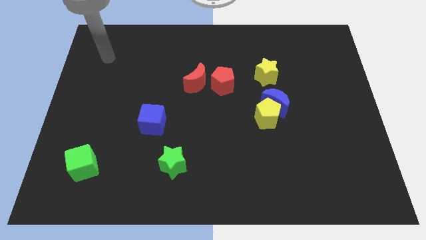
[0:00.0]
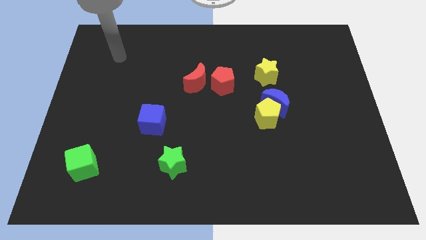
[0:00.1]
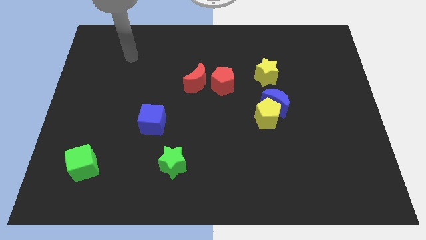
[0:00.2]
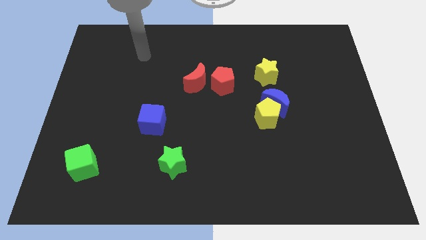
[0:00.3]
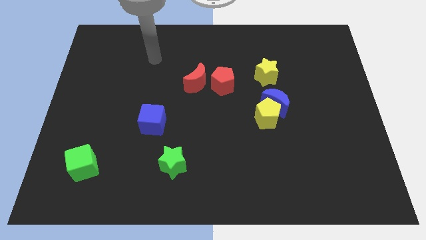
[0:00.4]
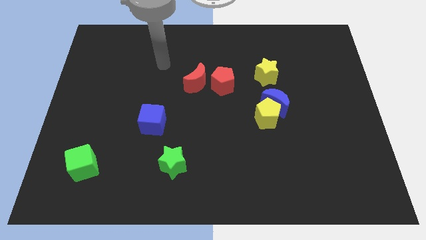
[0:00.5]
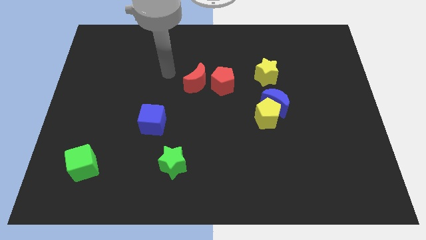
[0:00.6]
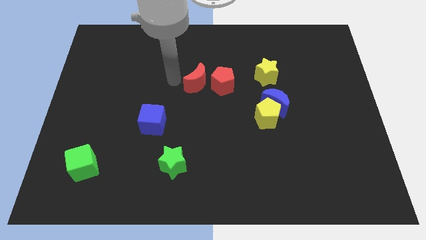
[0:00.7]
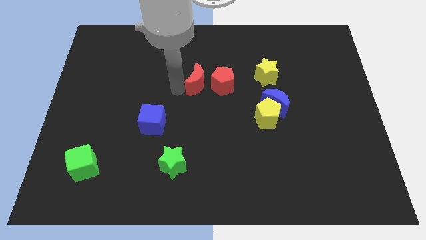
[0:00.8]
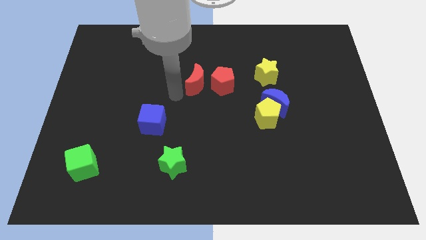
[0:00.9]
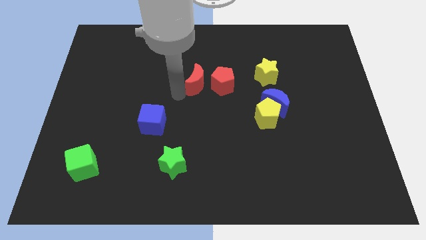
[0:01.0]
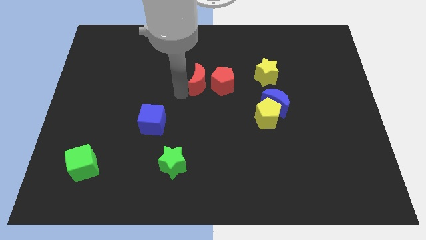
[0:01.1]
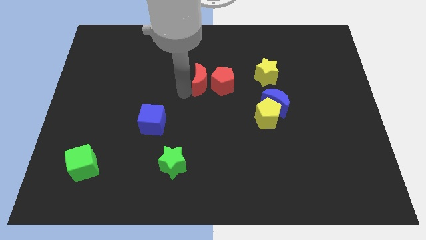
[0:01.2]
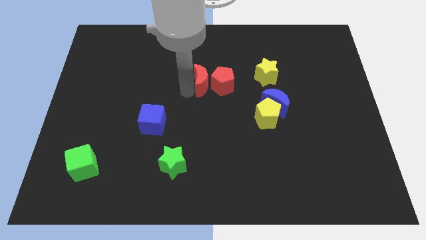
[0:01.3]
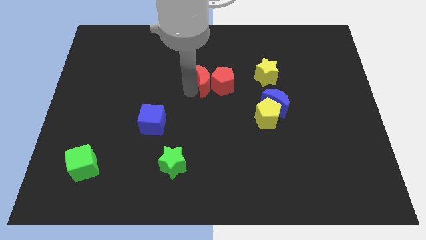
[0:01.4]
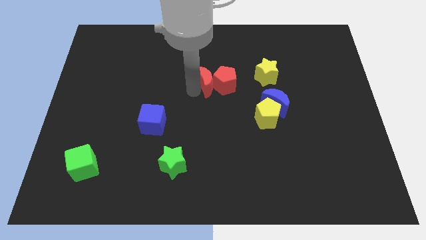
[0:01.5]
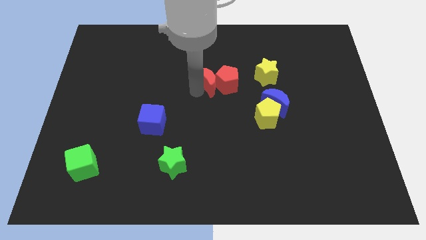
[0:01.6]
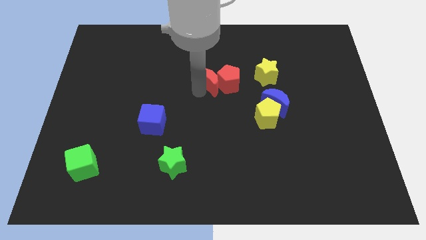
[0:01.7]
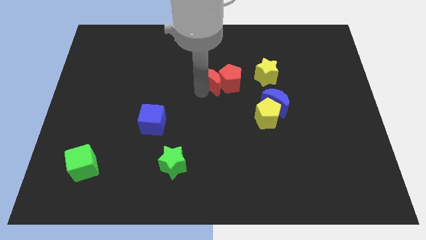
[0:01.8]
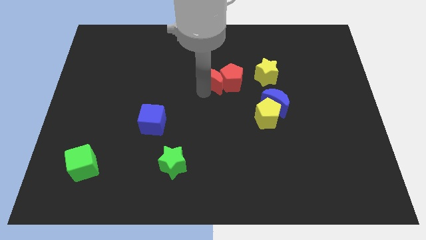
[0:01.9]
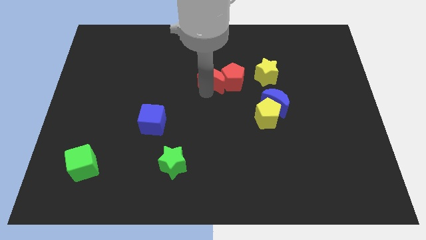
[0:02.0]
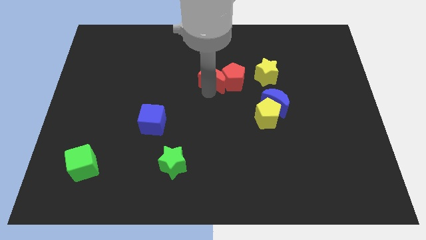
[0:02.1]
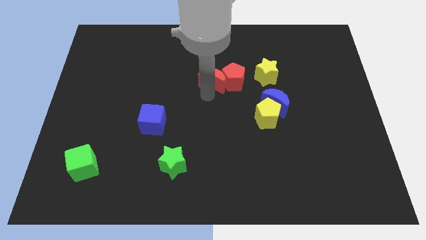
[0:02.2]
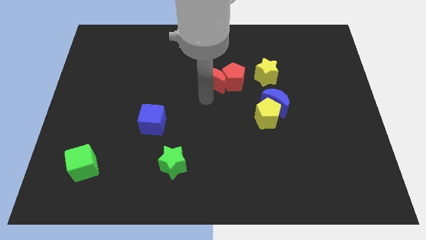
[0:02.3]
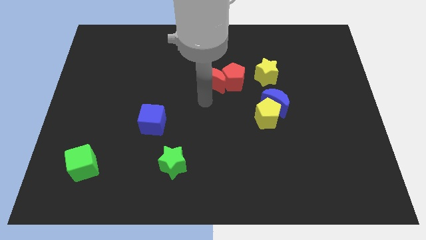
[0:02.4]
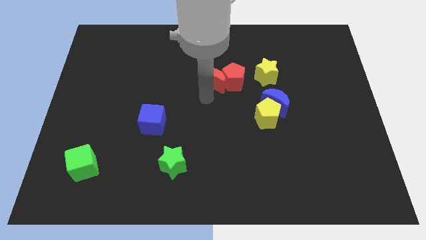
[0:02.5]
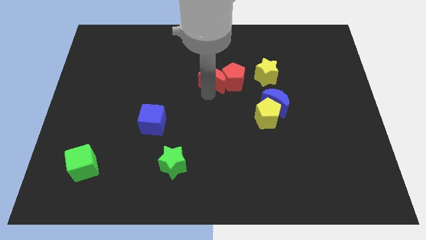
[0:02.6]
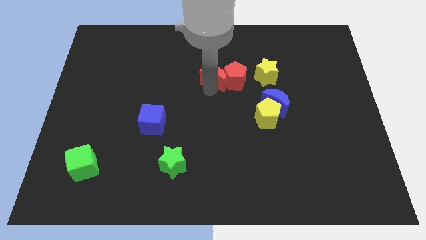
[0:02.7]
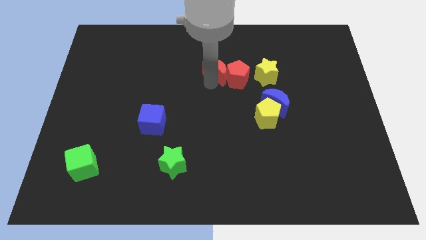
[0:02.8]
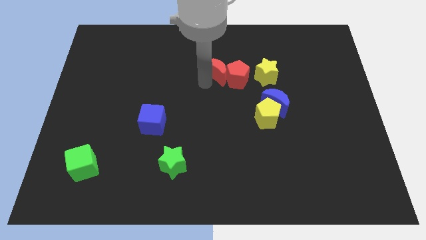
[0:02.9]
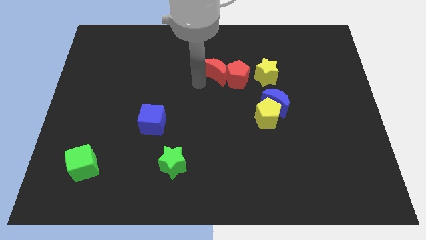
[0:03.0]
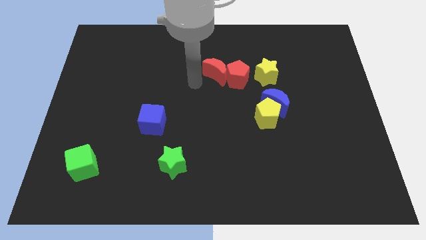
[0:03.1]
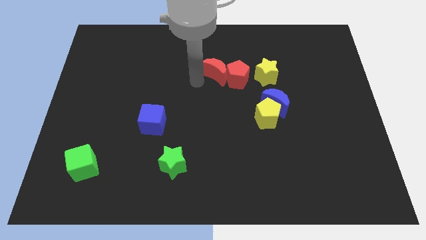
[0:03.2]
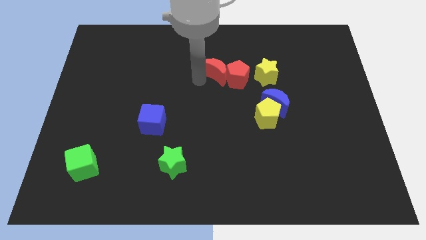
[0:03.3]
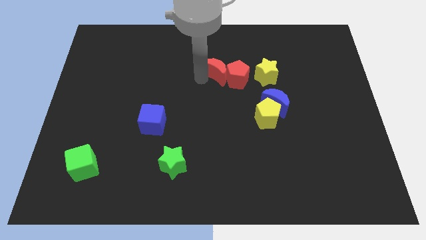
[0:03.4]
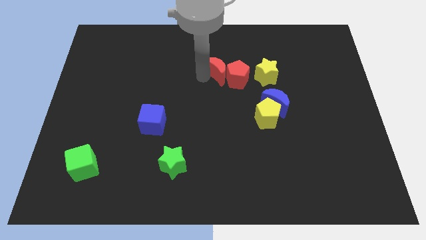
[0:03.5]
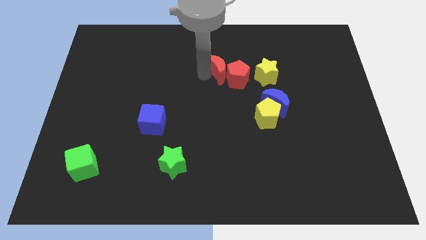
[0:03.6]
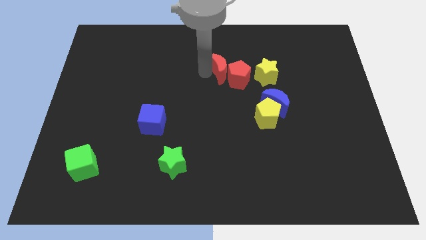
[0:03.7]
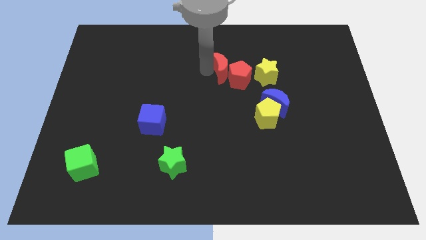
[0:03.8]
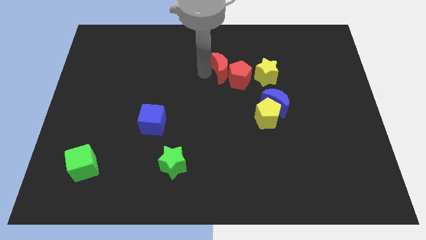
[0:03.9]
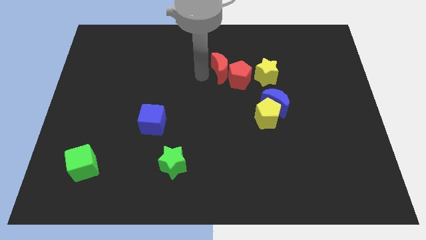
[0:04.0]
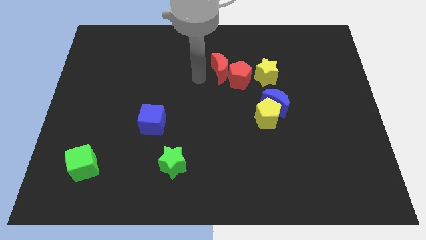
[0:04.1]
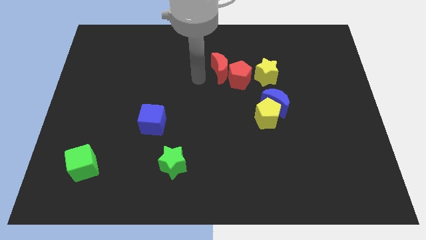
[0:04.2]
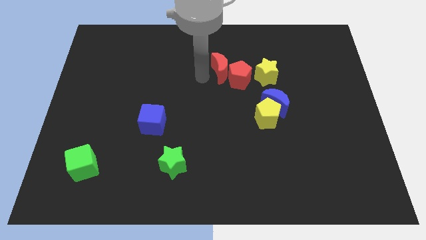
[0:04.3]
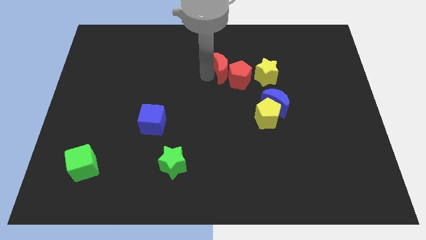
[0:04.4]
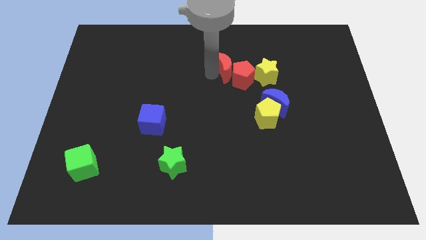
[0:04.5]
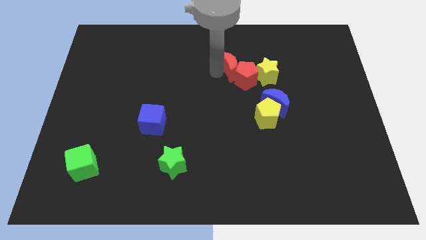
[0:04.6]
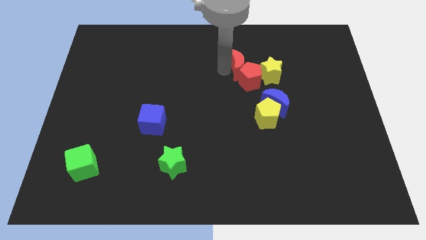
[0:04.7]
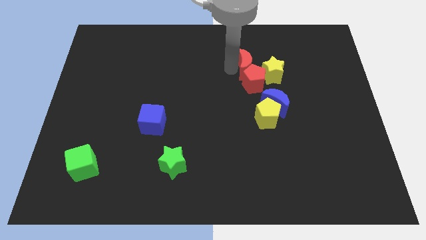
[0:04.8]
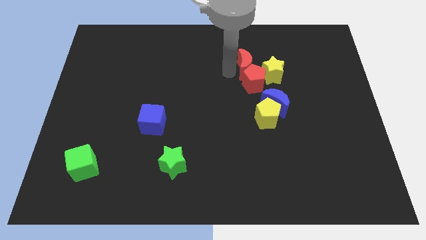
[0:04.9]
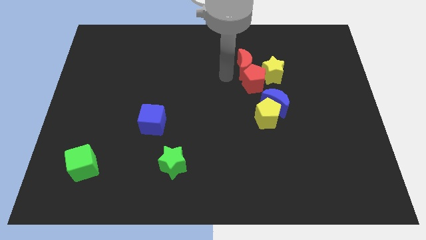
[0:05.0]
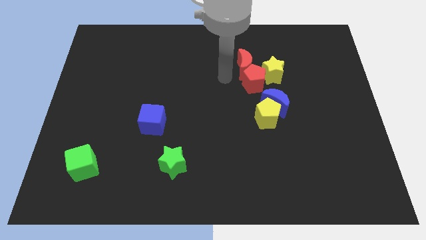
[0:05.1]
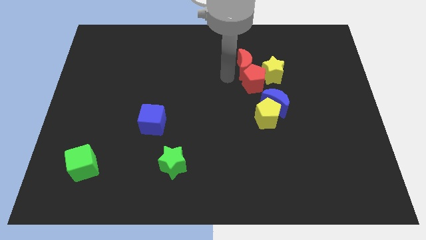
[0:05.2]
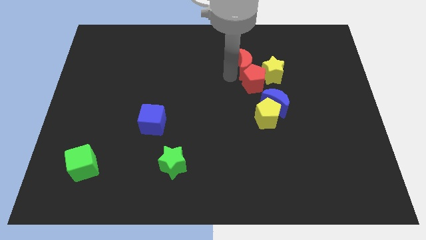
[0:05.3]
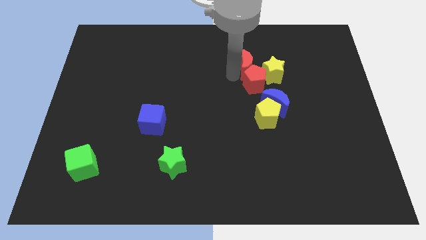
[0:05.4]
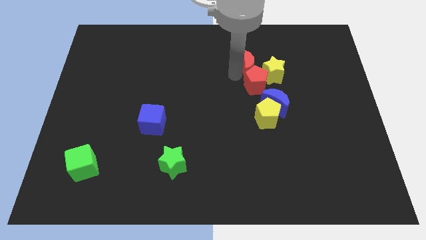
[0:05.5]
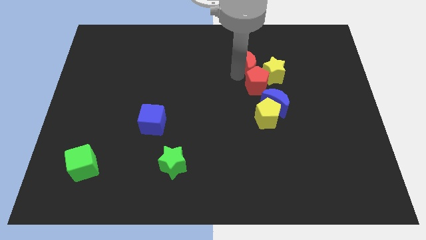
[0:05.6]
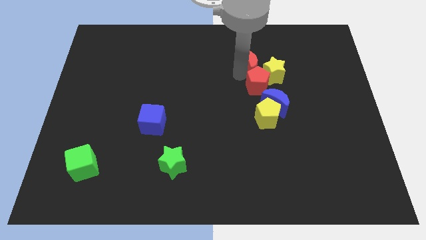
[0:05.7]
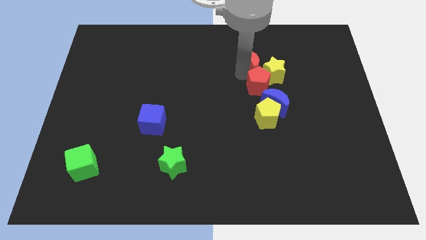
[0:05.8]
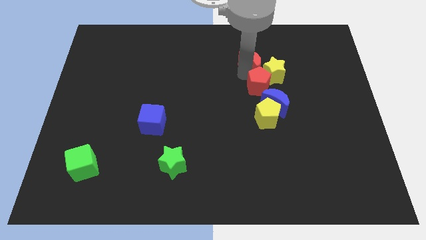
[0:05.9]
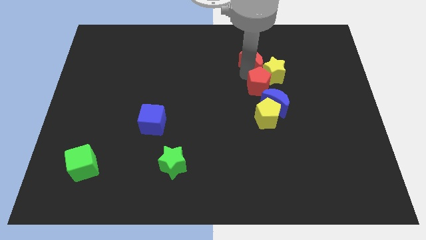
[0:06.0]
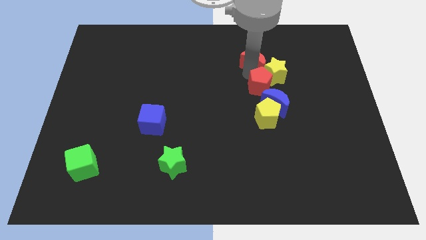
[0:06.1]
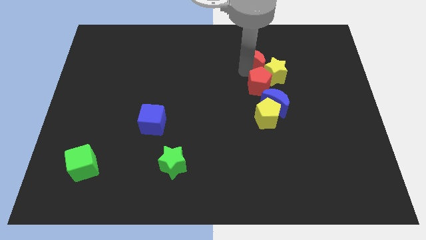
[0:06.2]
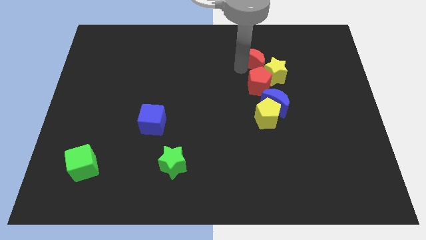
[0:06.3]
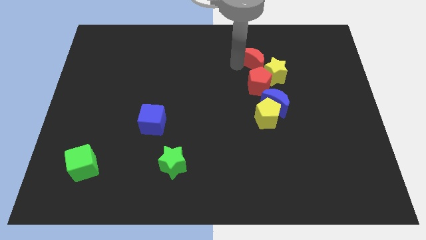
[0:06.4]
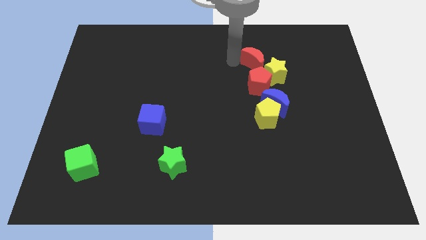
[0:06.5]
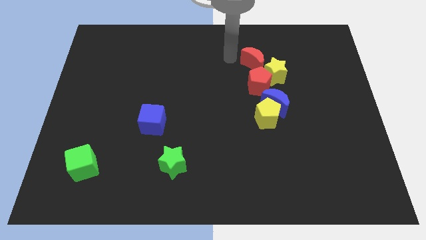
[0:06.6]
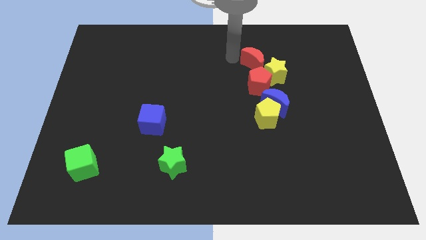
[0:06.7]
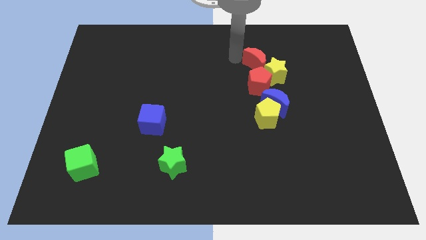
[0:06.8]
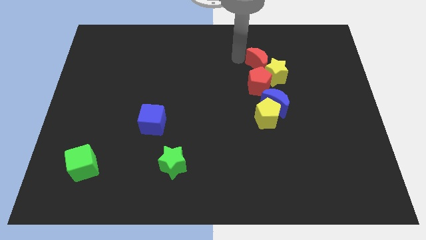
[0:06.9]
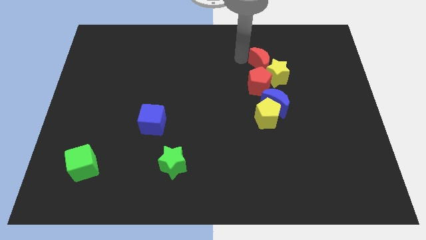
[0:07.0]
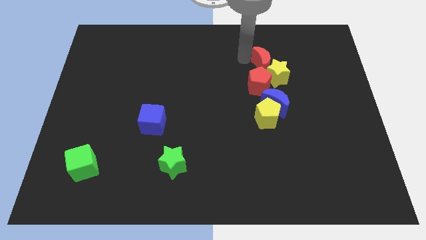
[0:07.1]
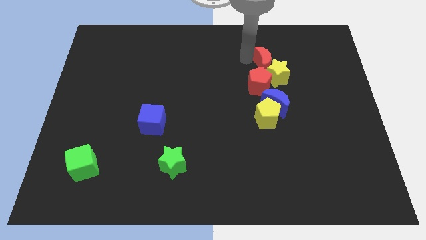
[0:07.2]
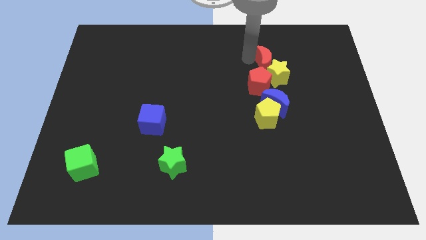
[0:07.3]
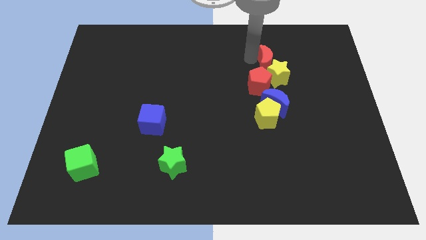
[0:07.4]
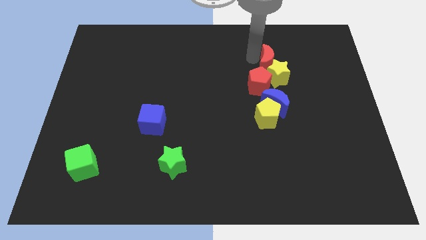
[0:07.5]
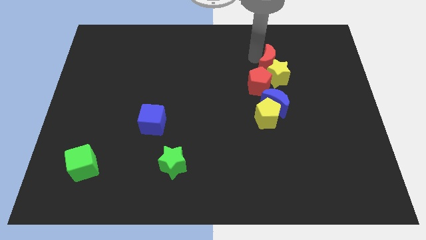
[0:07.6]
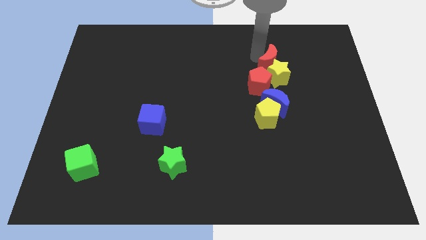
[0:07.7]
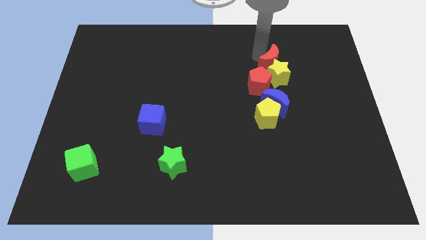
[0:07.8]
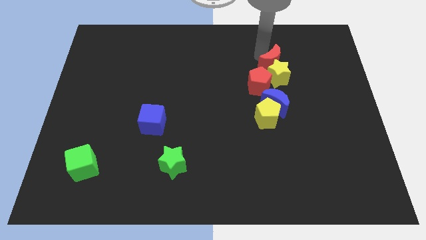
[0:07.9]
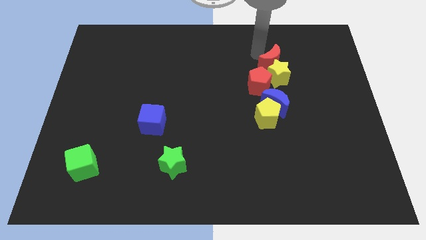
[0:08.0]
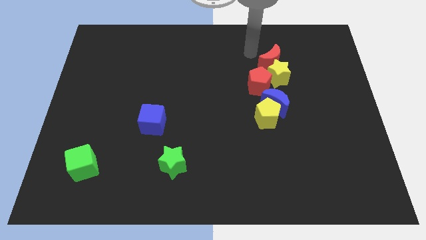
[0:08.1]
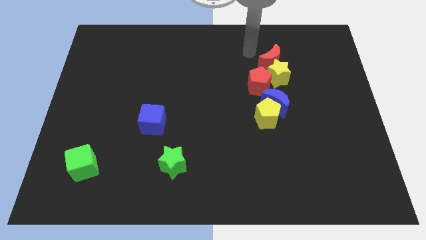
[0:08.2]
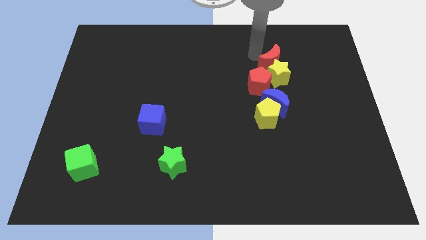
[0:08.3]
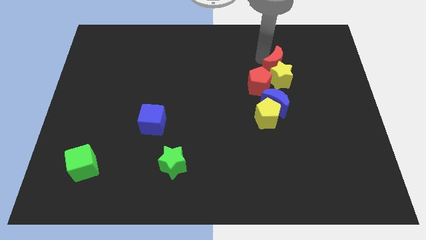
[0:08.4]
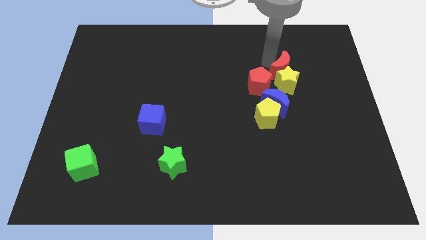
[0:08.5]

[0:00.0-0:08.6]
slide the red moon right
